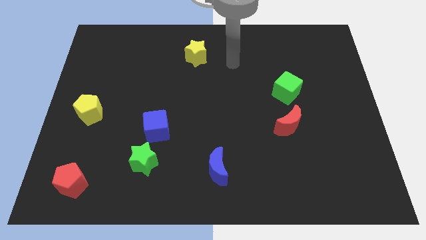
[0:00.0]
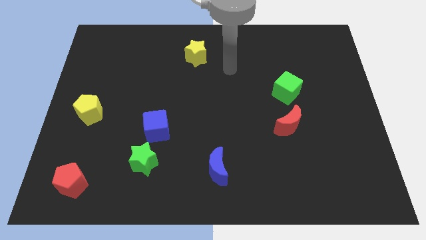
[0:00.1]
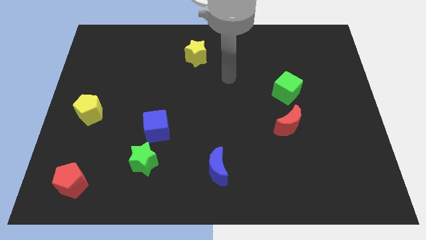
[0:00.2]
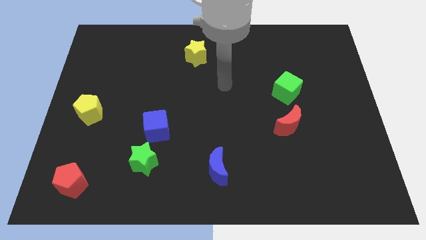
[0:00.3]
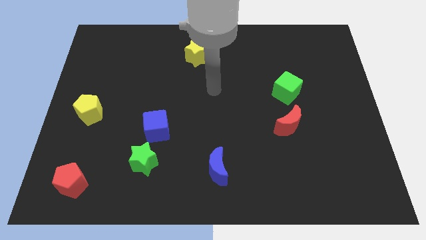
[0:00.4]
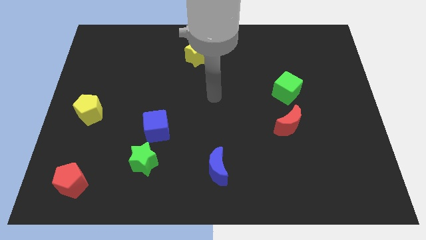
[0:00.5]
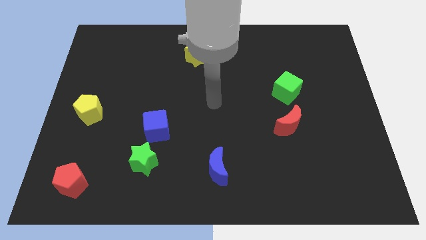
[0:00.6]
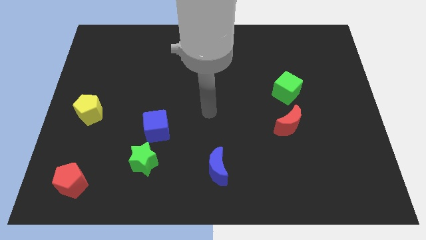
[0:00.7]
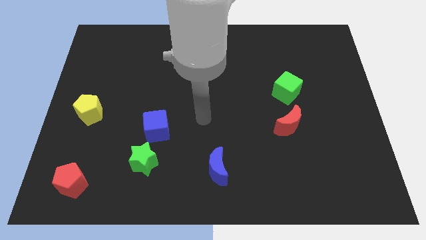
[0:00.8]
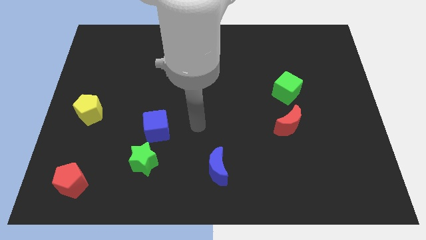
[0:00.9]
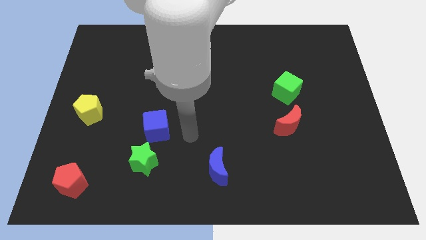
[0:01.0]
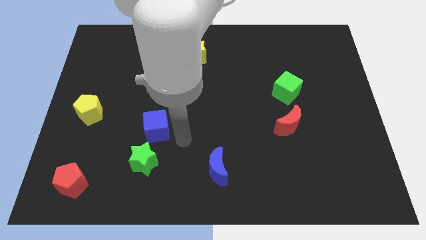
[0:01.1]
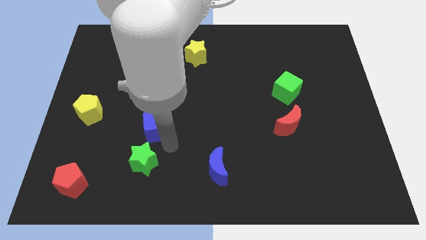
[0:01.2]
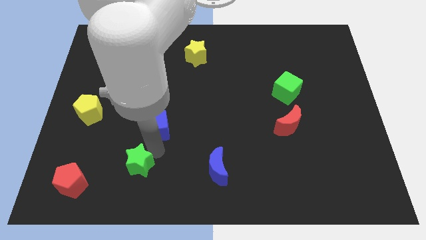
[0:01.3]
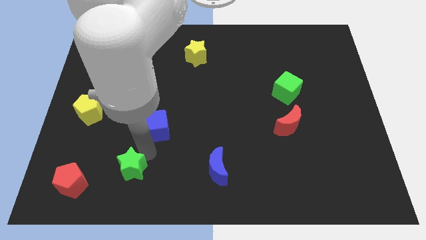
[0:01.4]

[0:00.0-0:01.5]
pull the blue cube apart from the green star

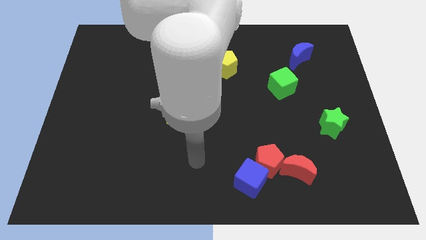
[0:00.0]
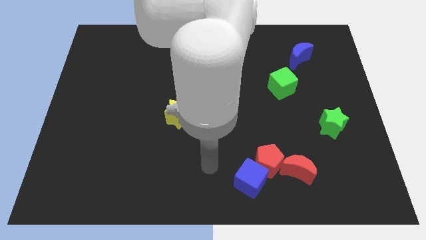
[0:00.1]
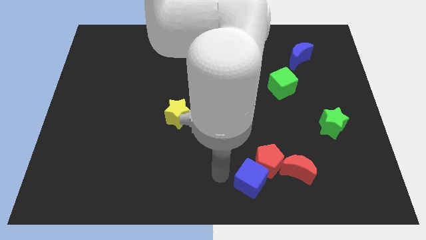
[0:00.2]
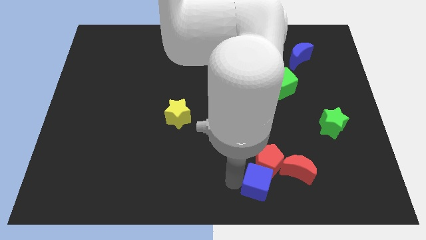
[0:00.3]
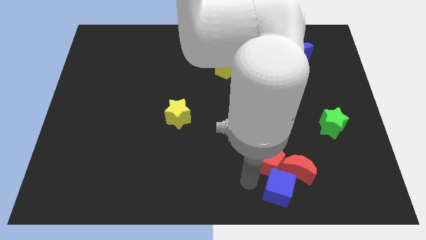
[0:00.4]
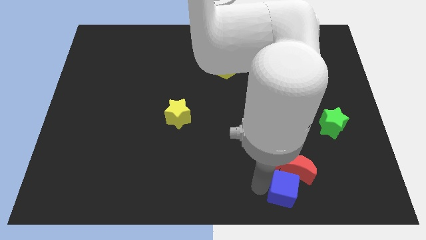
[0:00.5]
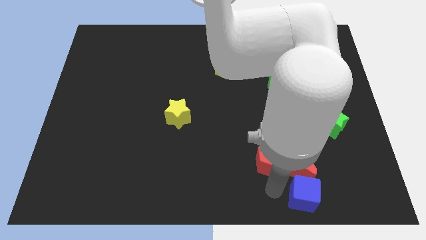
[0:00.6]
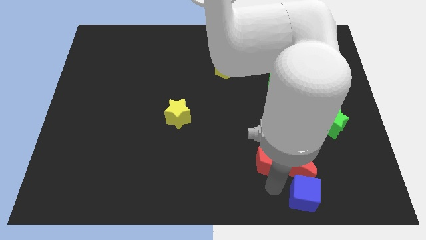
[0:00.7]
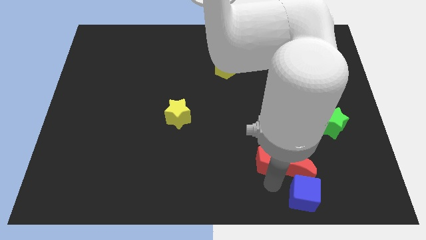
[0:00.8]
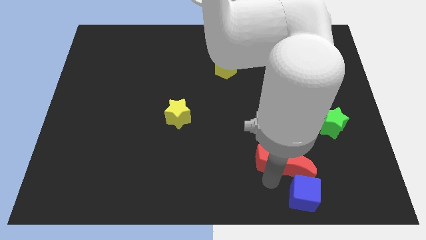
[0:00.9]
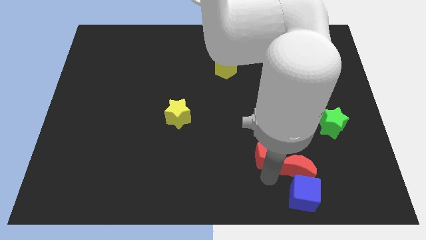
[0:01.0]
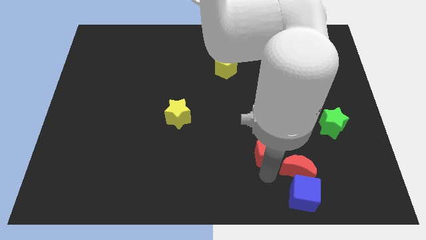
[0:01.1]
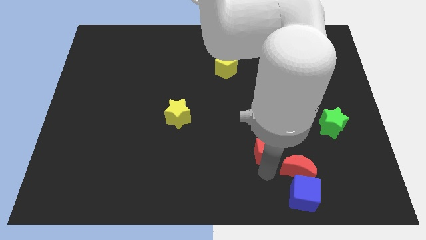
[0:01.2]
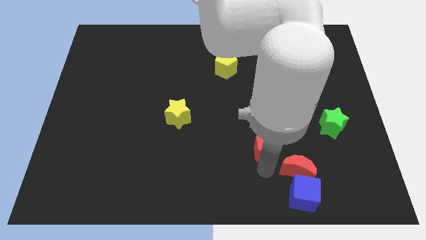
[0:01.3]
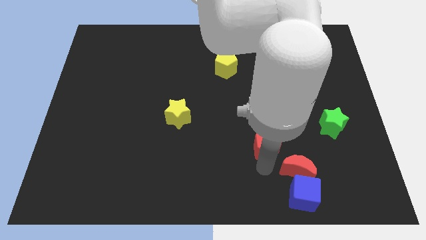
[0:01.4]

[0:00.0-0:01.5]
pull the red pentagon apart from the blue cube and red moon

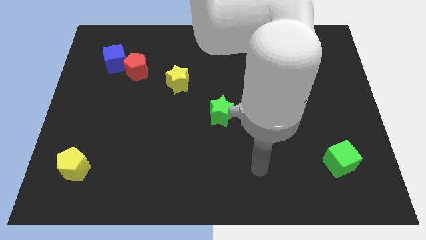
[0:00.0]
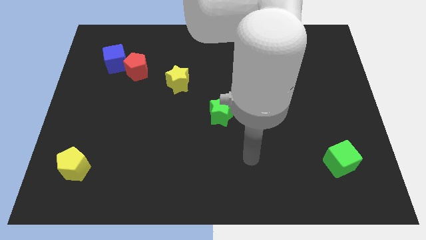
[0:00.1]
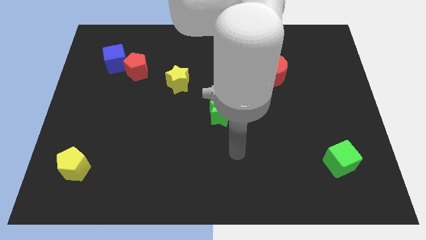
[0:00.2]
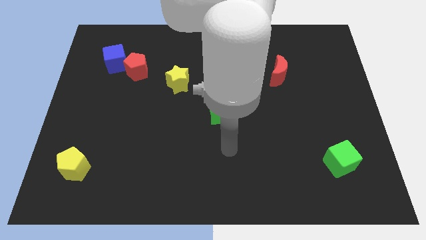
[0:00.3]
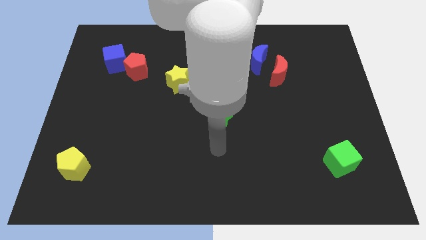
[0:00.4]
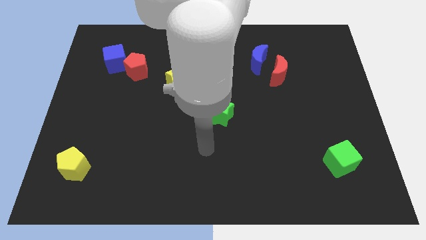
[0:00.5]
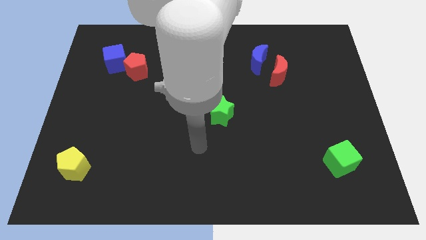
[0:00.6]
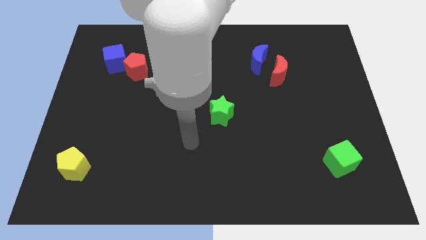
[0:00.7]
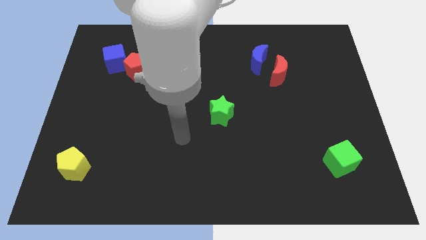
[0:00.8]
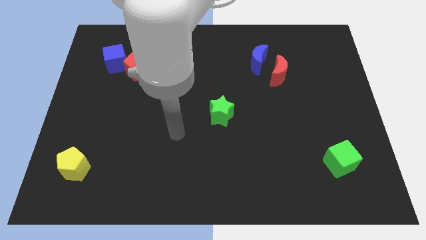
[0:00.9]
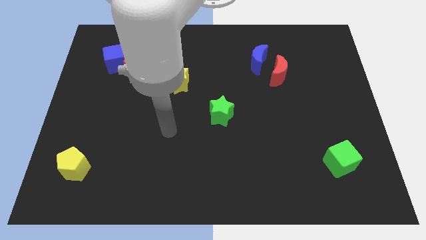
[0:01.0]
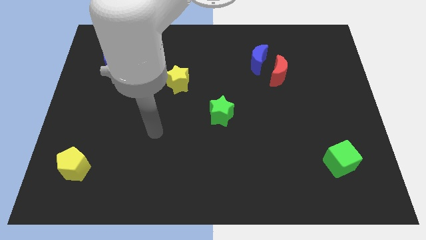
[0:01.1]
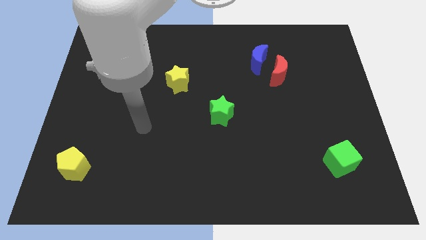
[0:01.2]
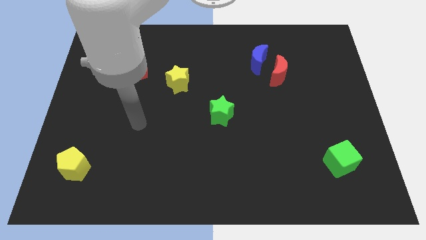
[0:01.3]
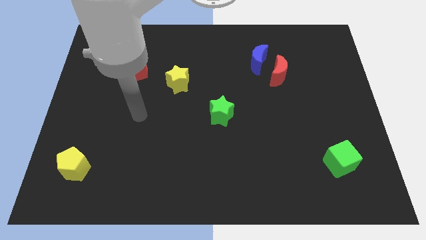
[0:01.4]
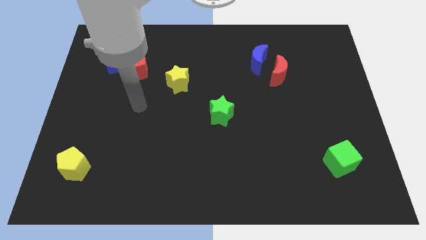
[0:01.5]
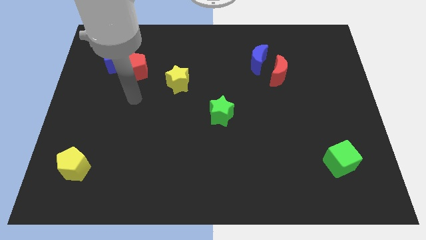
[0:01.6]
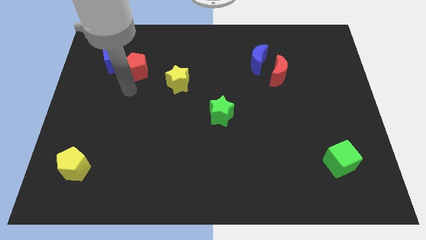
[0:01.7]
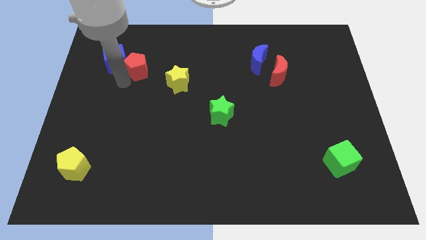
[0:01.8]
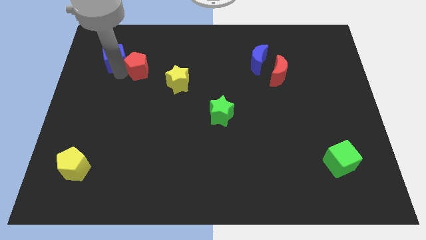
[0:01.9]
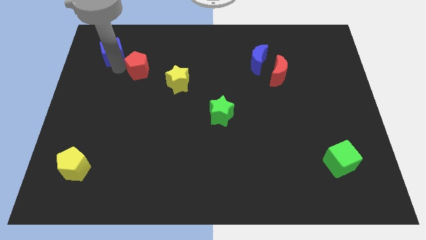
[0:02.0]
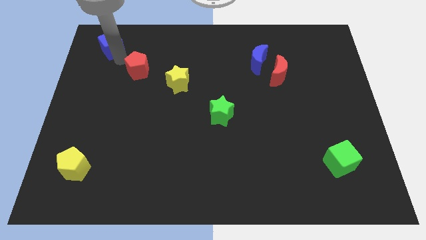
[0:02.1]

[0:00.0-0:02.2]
move the red pentagon away from the blue cube

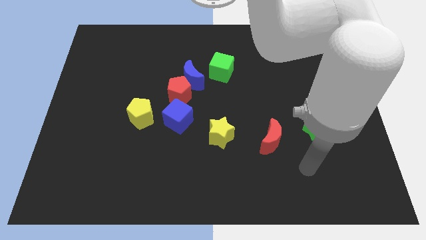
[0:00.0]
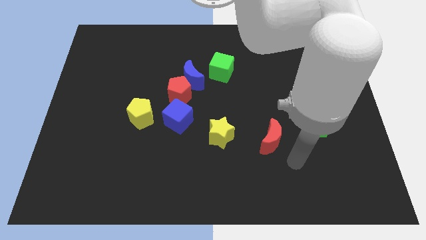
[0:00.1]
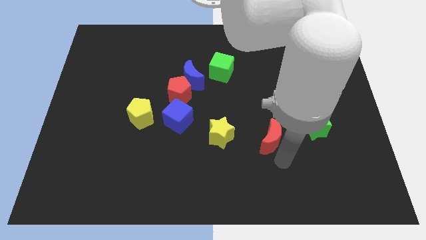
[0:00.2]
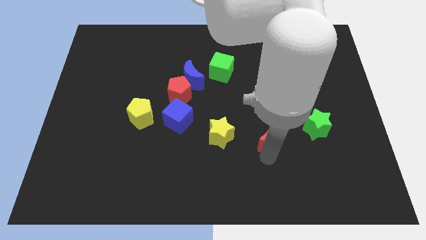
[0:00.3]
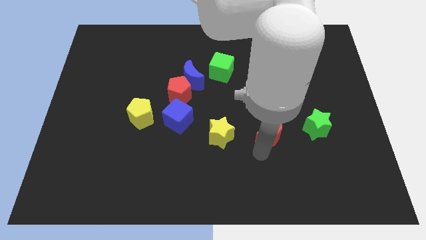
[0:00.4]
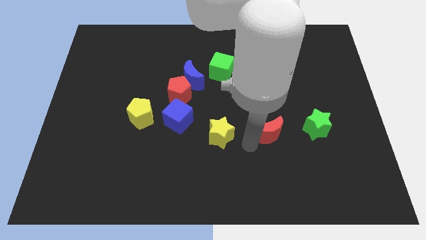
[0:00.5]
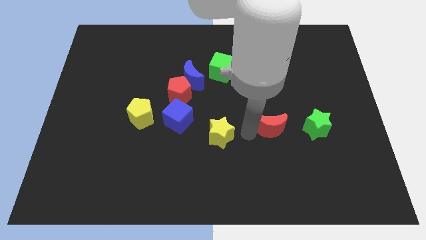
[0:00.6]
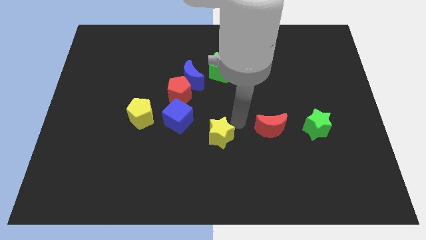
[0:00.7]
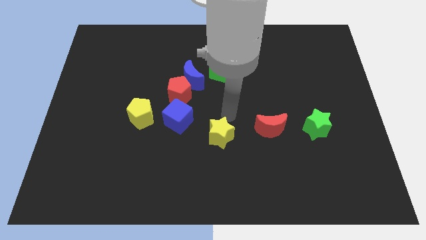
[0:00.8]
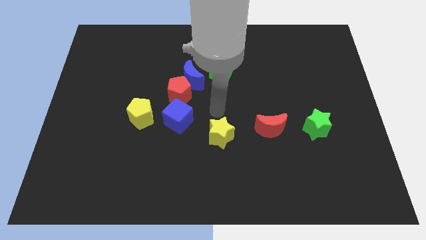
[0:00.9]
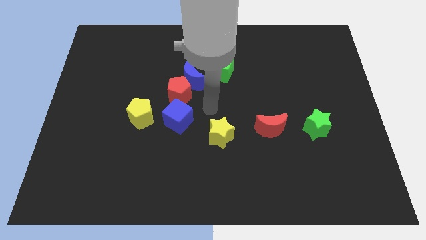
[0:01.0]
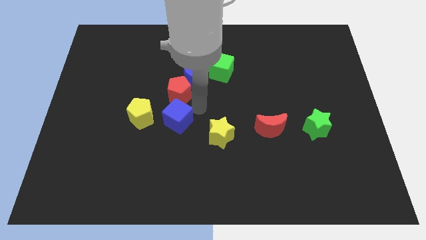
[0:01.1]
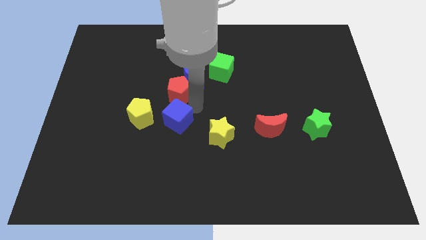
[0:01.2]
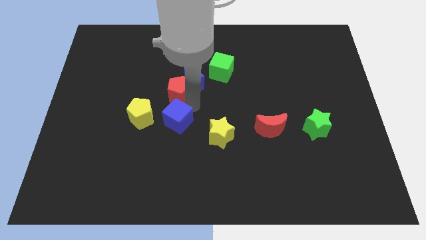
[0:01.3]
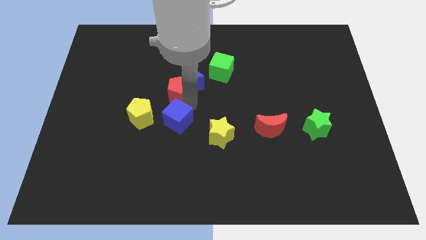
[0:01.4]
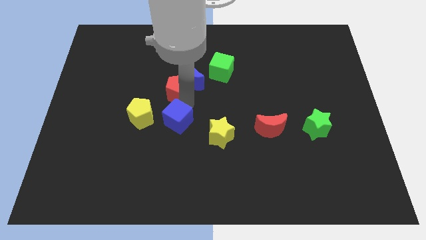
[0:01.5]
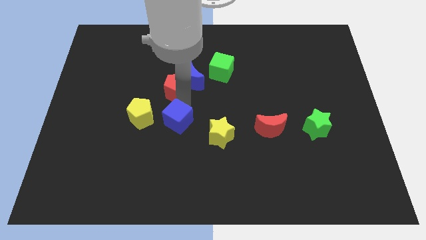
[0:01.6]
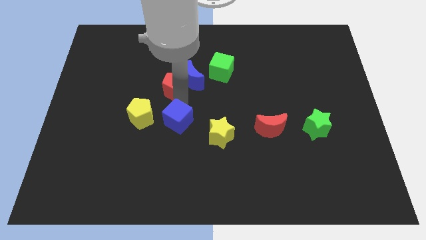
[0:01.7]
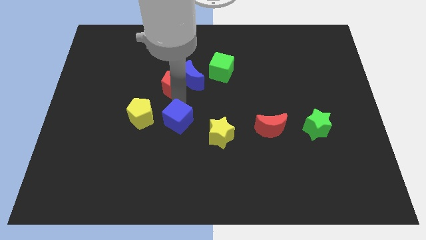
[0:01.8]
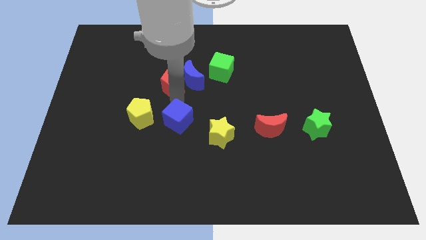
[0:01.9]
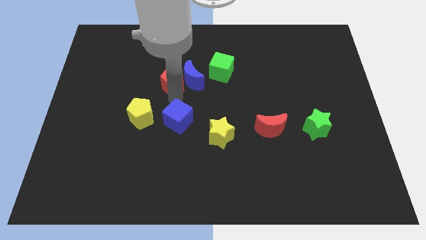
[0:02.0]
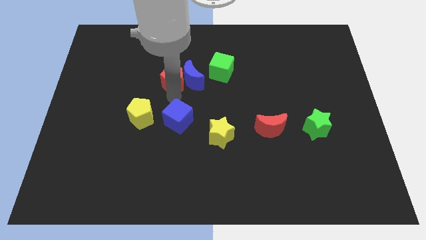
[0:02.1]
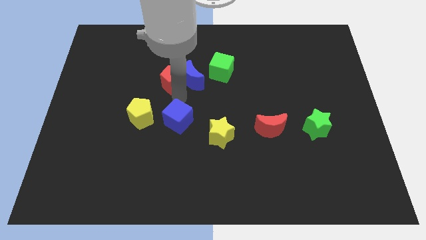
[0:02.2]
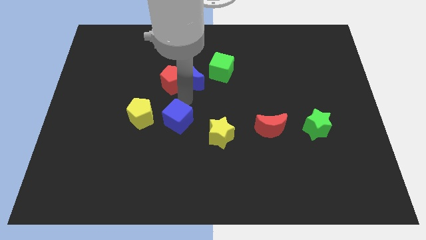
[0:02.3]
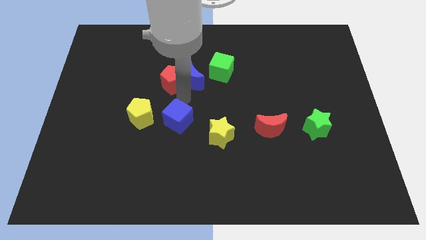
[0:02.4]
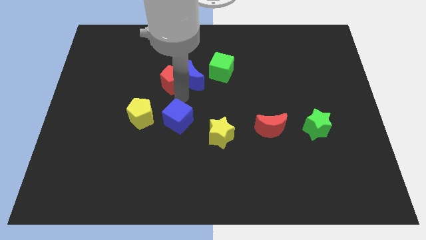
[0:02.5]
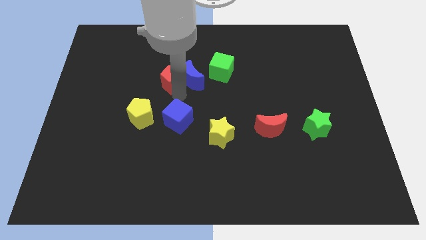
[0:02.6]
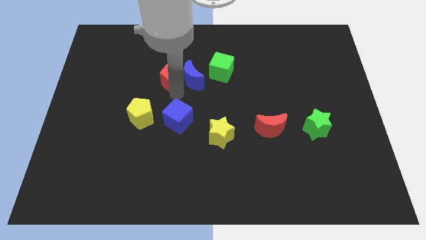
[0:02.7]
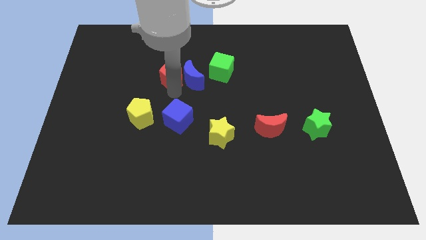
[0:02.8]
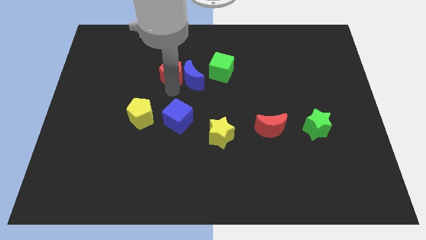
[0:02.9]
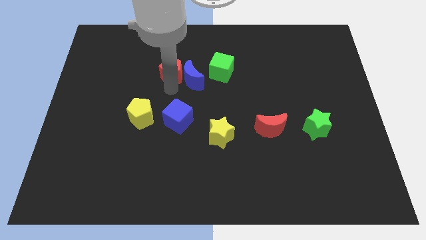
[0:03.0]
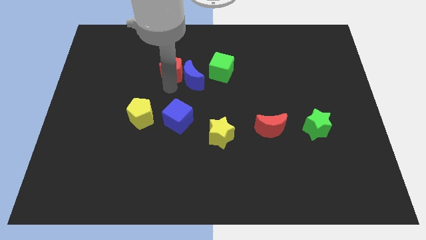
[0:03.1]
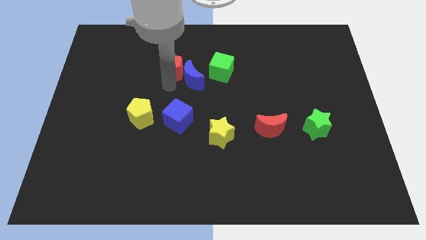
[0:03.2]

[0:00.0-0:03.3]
pull the red pentagon apart from the blue moon and blue cube

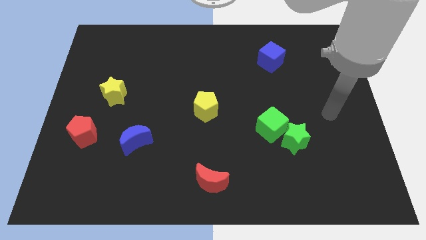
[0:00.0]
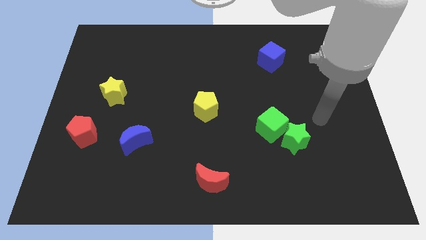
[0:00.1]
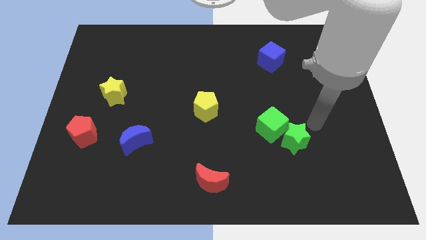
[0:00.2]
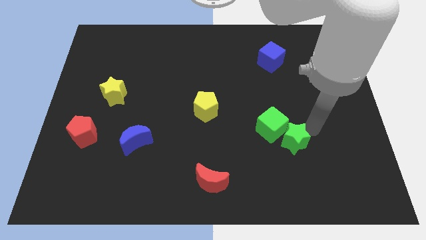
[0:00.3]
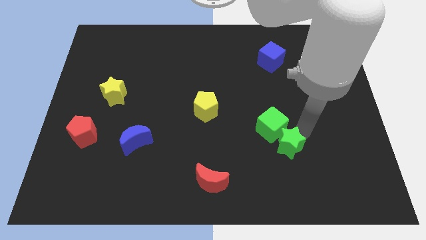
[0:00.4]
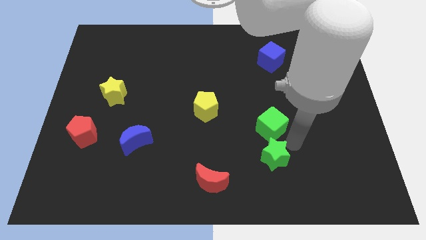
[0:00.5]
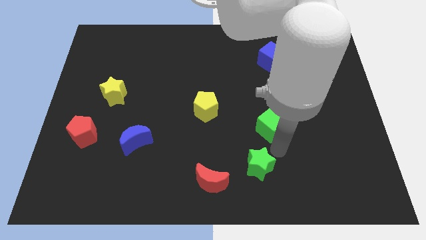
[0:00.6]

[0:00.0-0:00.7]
separate the green cube from the green star
